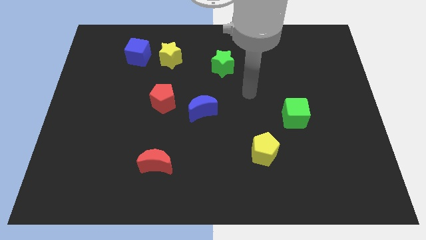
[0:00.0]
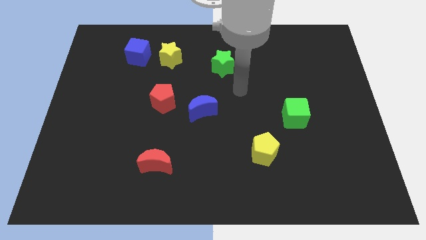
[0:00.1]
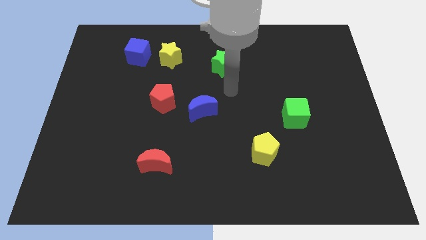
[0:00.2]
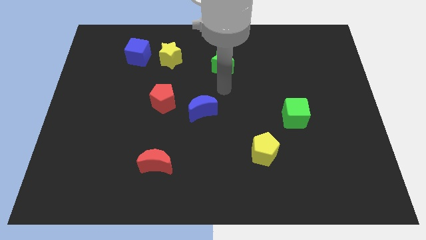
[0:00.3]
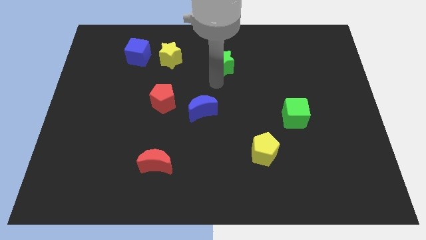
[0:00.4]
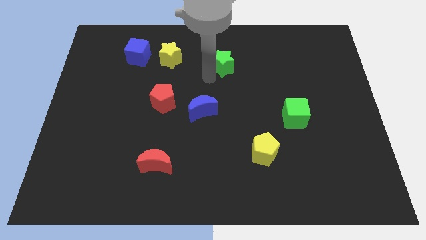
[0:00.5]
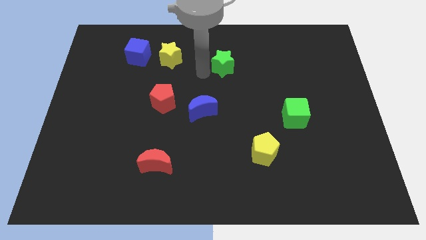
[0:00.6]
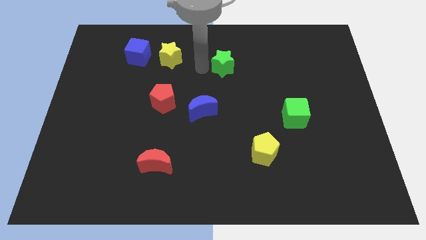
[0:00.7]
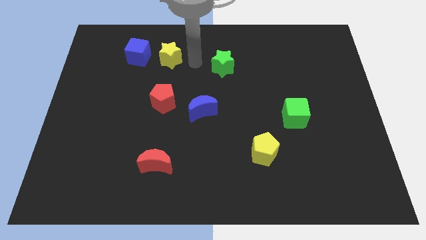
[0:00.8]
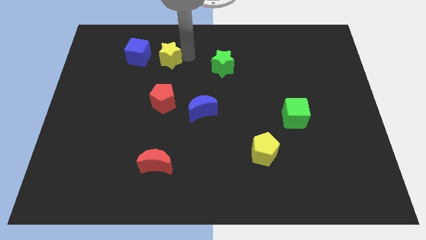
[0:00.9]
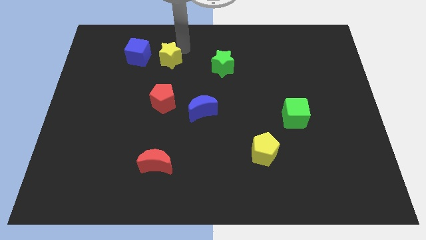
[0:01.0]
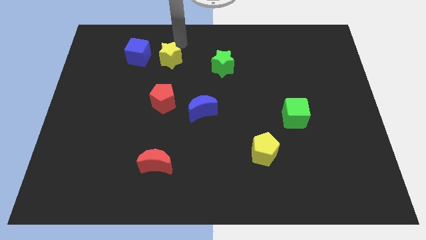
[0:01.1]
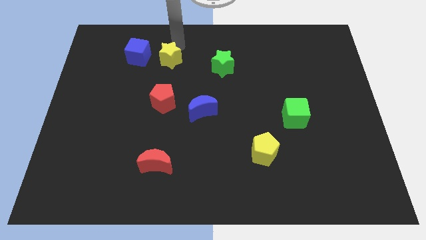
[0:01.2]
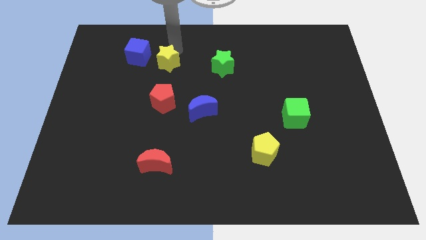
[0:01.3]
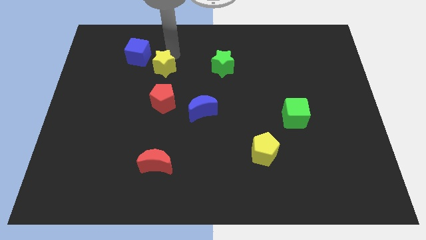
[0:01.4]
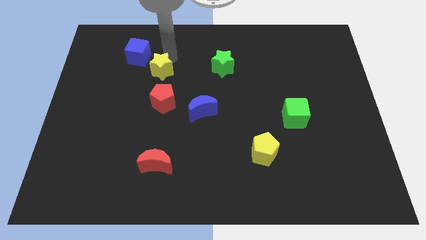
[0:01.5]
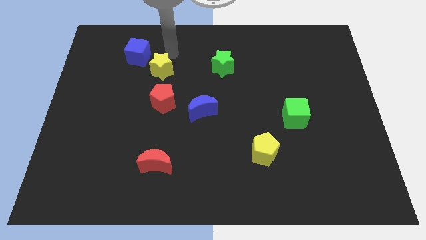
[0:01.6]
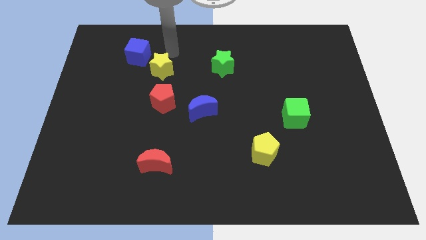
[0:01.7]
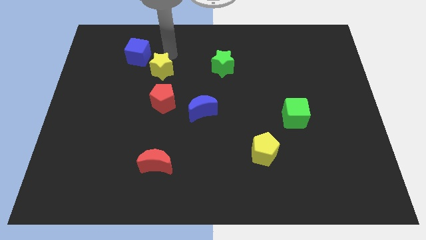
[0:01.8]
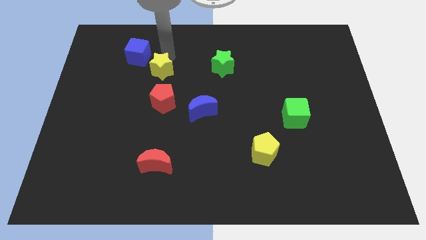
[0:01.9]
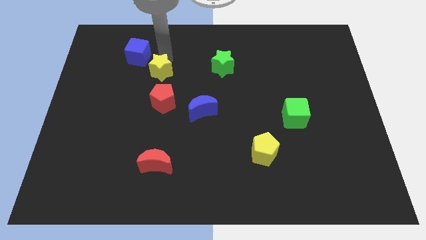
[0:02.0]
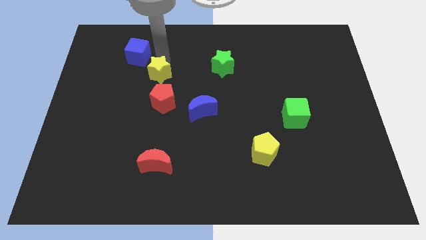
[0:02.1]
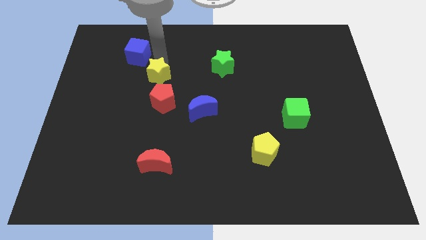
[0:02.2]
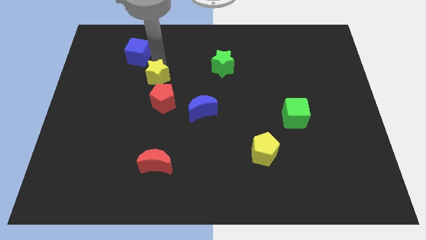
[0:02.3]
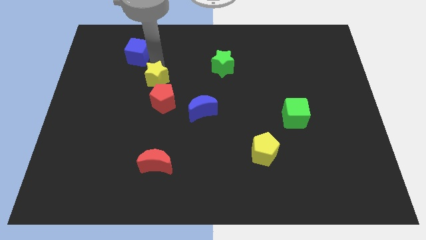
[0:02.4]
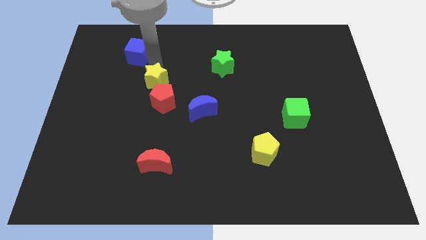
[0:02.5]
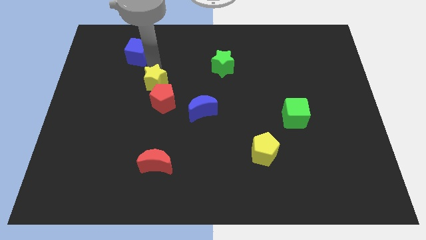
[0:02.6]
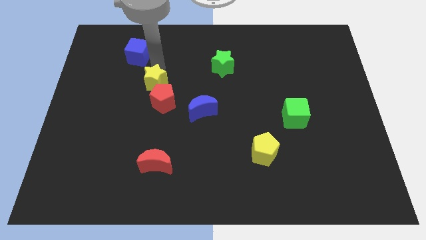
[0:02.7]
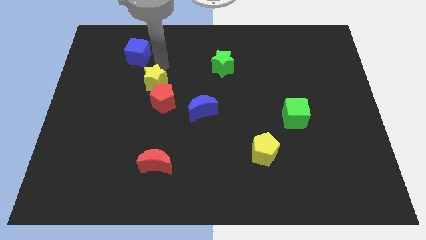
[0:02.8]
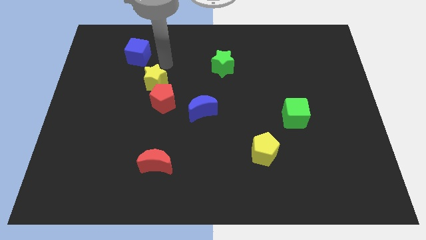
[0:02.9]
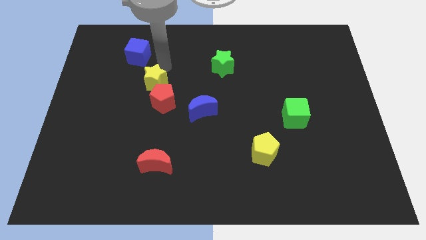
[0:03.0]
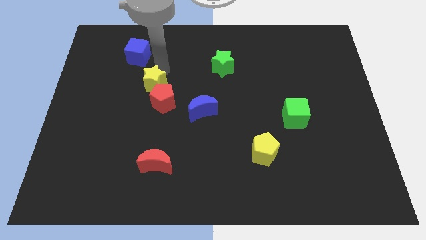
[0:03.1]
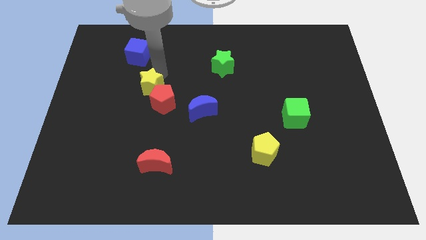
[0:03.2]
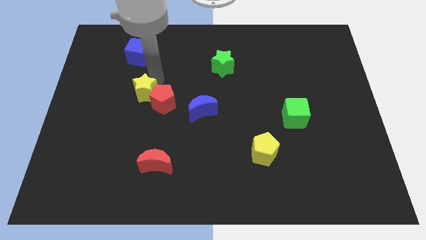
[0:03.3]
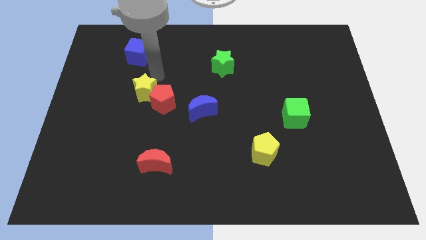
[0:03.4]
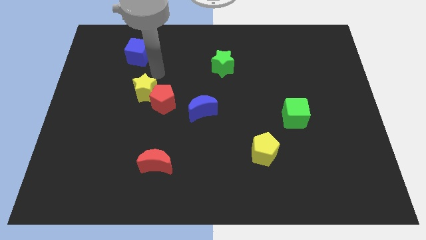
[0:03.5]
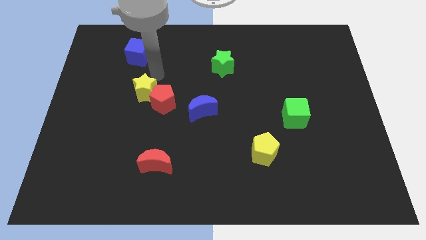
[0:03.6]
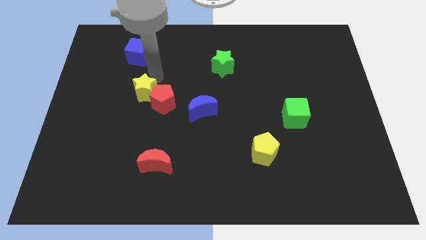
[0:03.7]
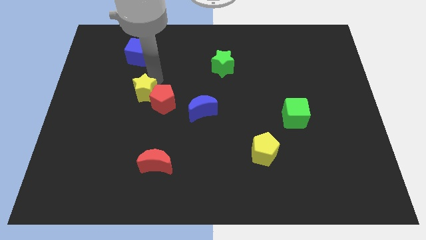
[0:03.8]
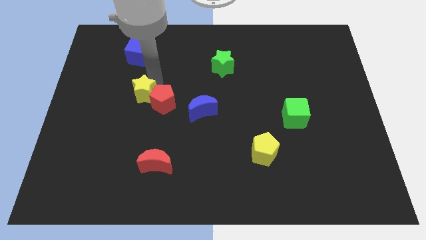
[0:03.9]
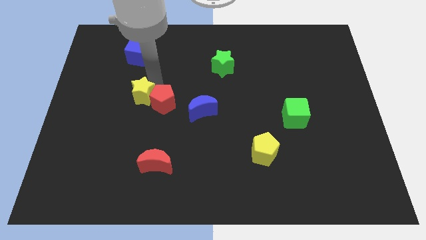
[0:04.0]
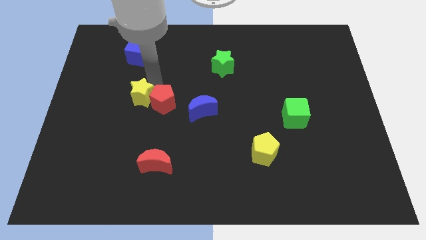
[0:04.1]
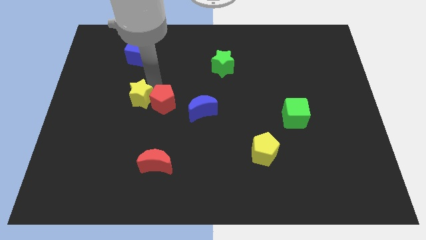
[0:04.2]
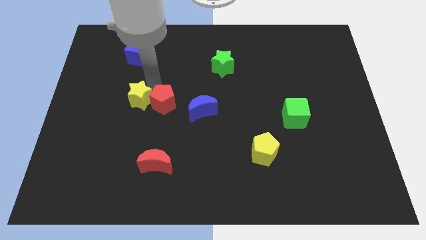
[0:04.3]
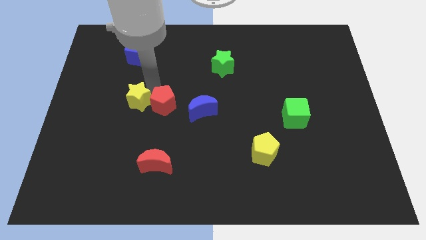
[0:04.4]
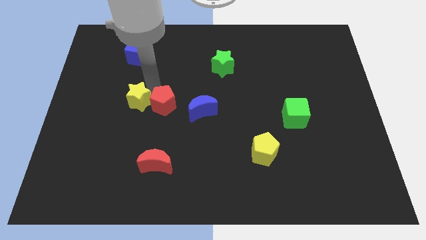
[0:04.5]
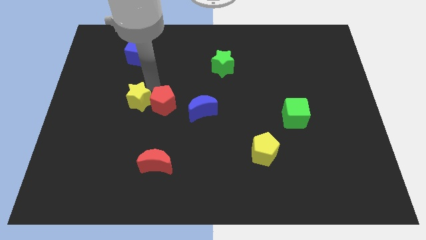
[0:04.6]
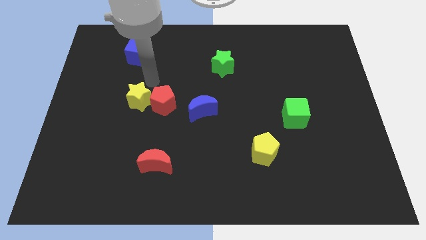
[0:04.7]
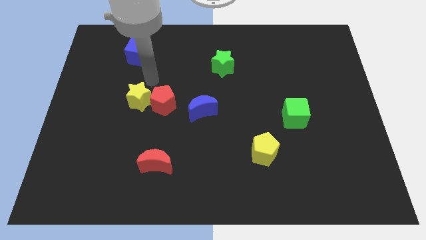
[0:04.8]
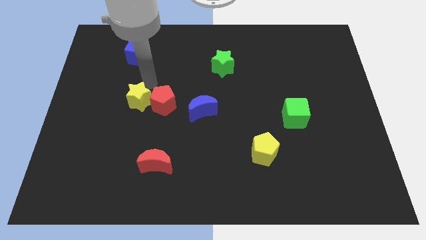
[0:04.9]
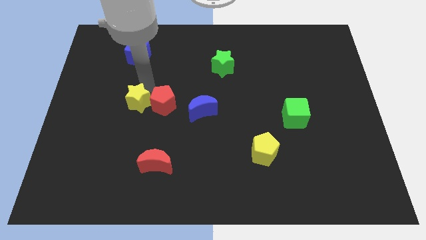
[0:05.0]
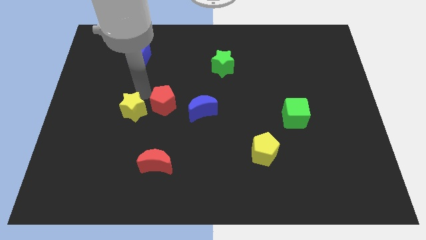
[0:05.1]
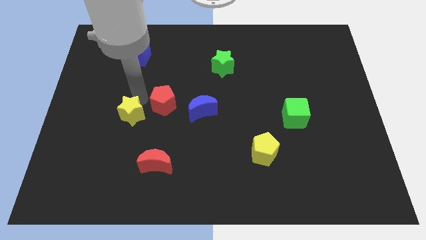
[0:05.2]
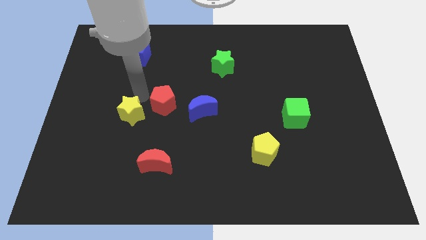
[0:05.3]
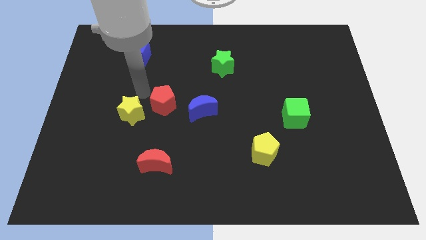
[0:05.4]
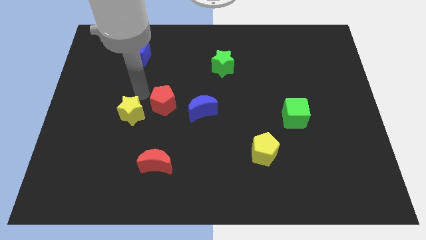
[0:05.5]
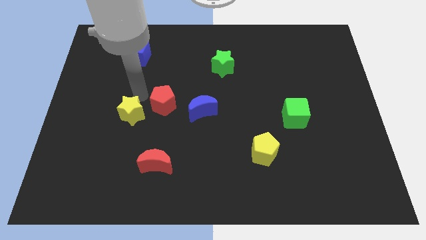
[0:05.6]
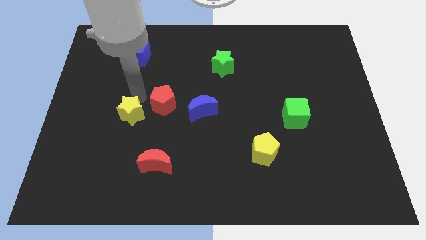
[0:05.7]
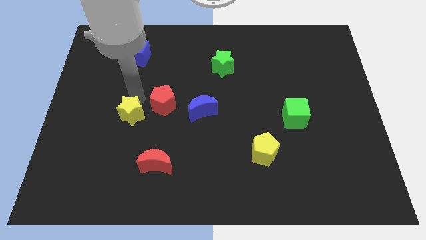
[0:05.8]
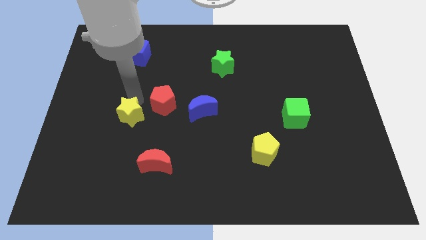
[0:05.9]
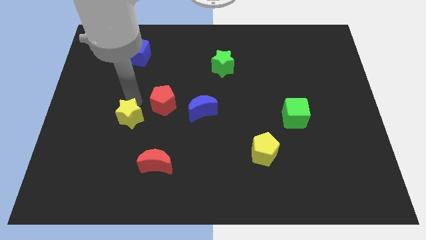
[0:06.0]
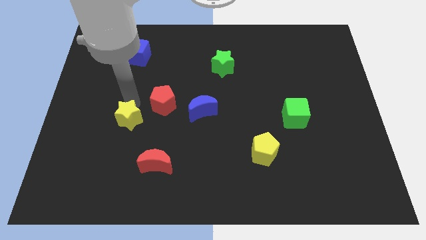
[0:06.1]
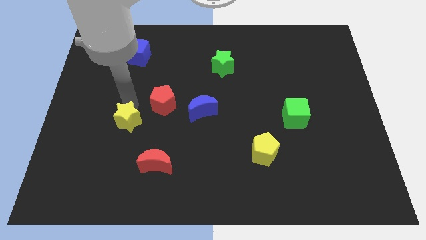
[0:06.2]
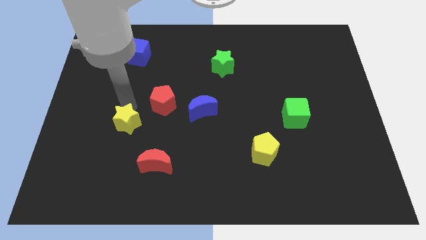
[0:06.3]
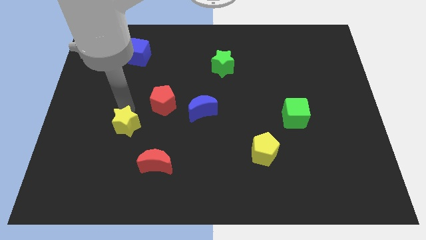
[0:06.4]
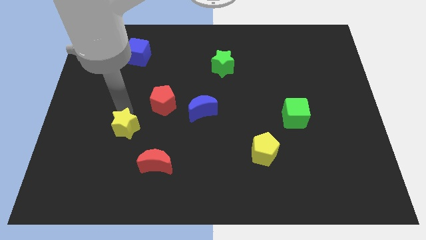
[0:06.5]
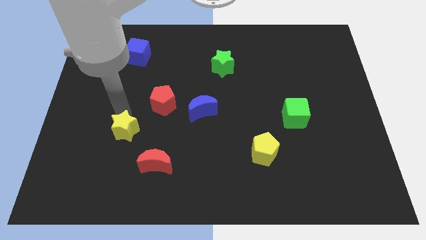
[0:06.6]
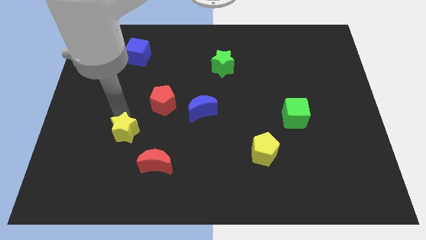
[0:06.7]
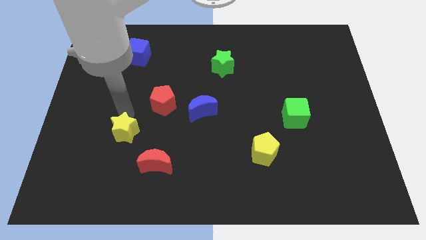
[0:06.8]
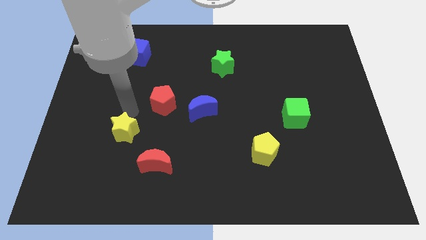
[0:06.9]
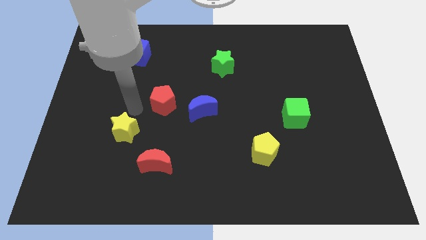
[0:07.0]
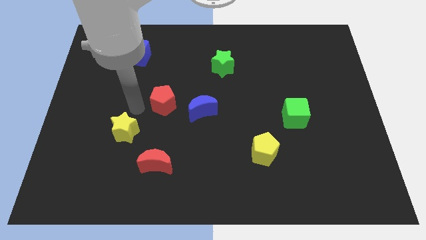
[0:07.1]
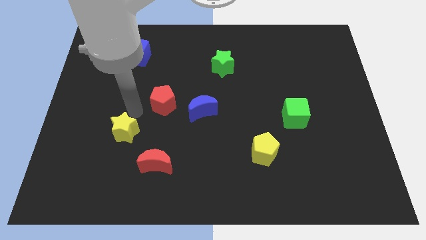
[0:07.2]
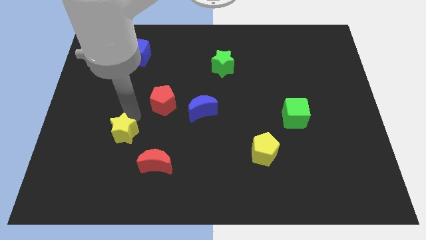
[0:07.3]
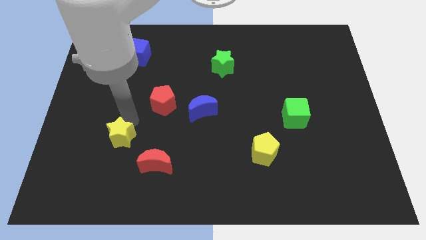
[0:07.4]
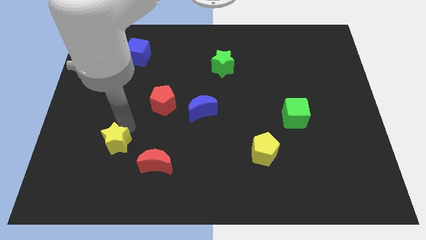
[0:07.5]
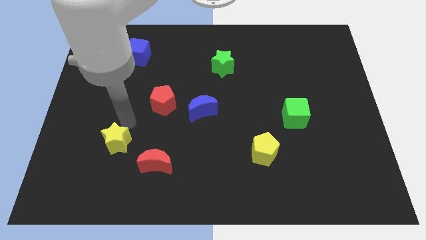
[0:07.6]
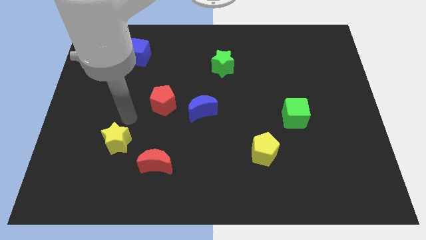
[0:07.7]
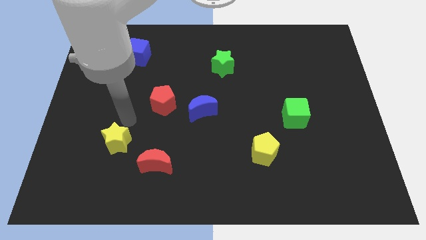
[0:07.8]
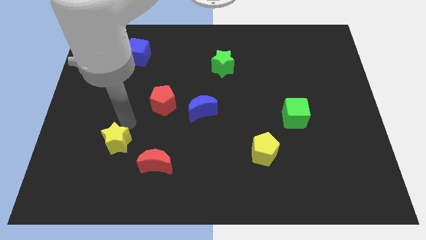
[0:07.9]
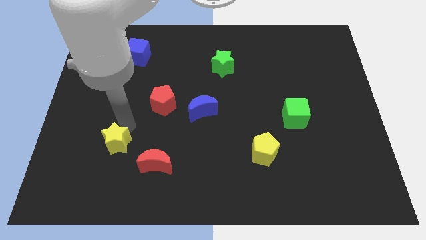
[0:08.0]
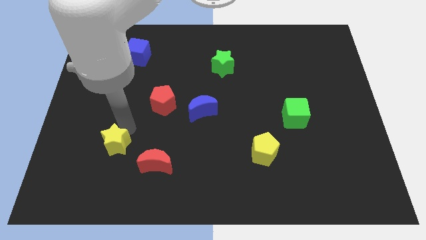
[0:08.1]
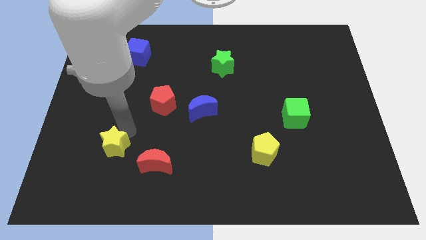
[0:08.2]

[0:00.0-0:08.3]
move the yellow star left of the red moon
